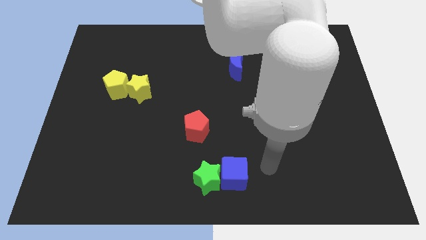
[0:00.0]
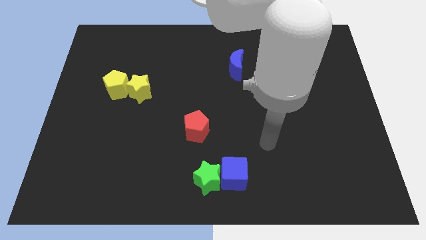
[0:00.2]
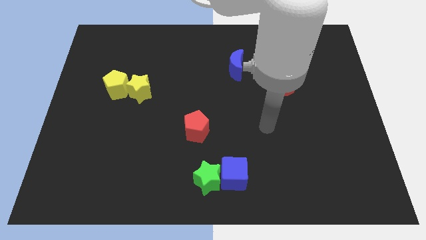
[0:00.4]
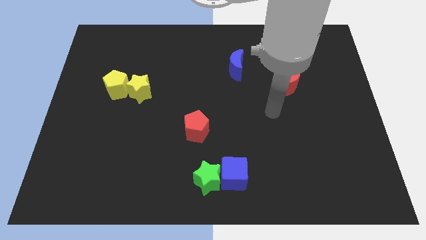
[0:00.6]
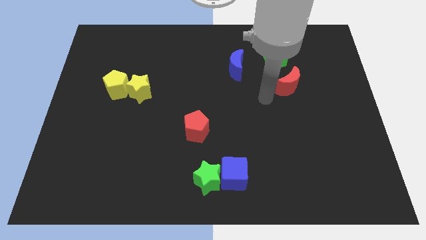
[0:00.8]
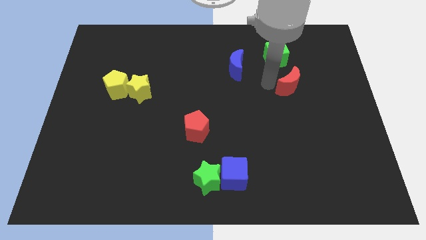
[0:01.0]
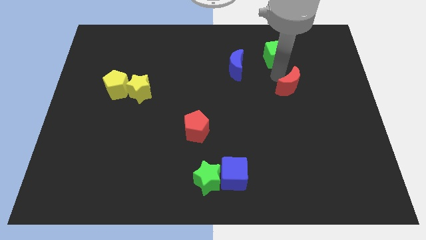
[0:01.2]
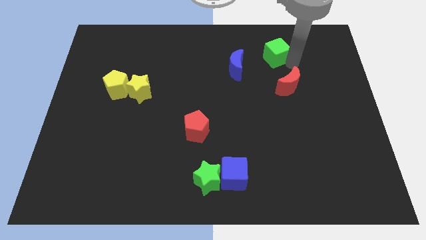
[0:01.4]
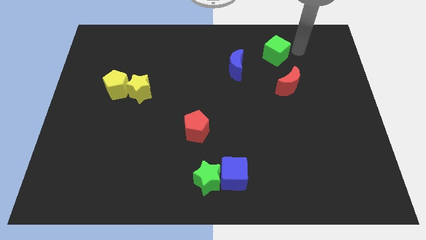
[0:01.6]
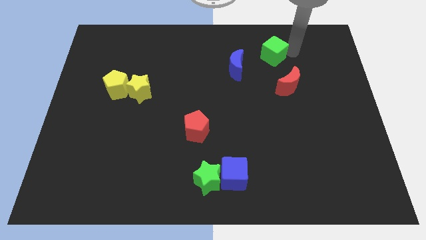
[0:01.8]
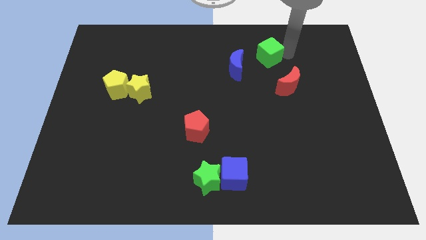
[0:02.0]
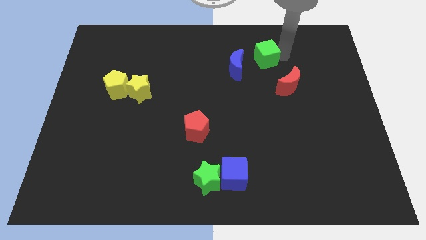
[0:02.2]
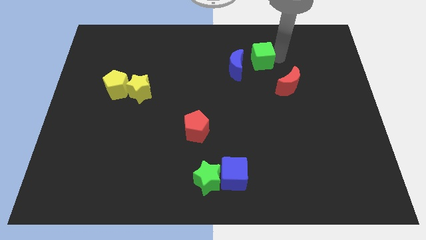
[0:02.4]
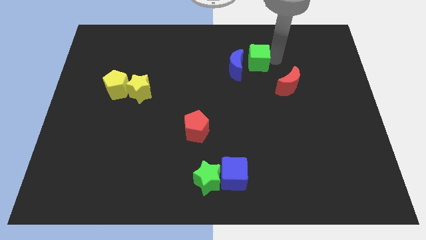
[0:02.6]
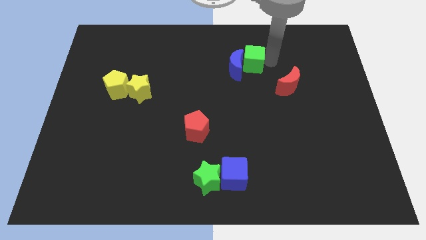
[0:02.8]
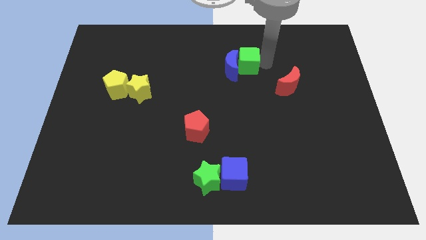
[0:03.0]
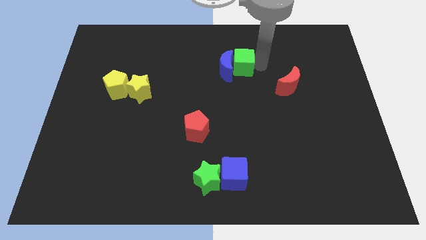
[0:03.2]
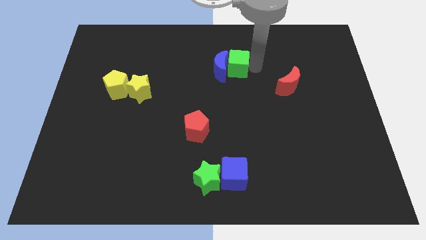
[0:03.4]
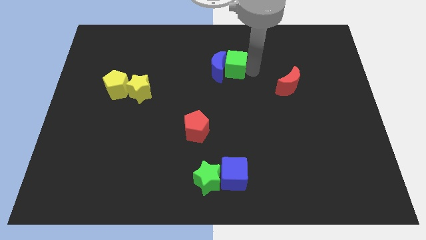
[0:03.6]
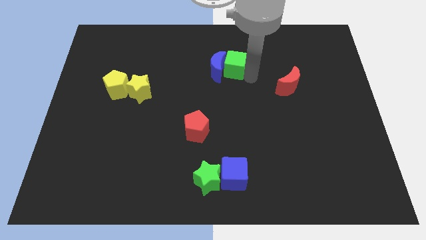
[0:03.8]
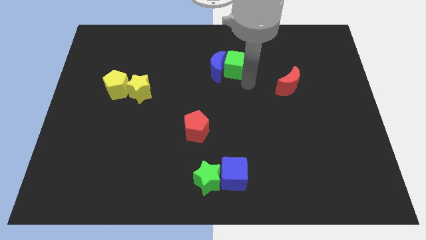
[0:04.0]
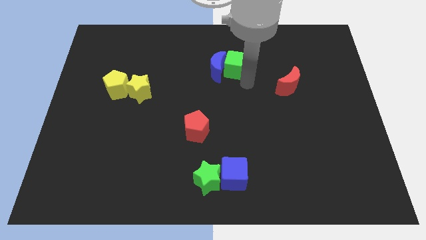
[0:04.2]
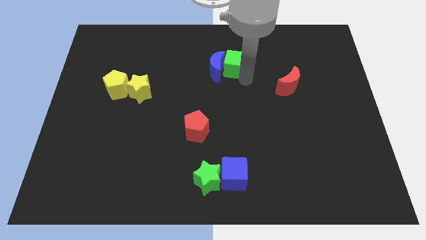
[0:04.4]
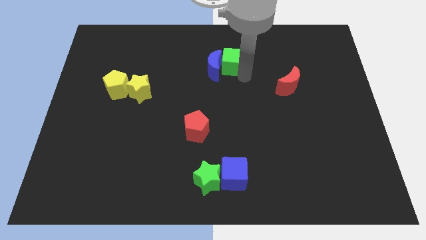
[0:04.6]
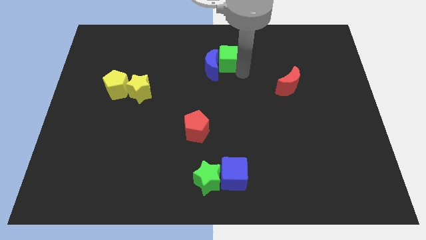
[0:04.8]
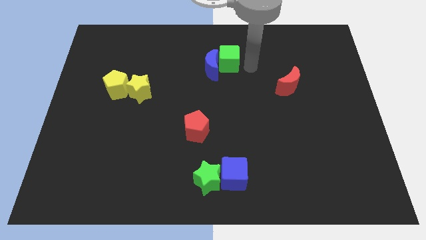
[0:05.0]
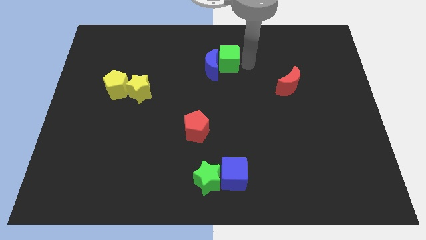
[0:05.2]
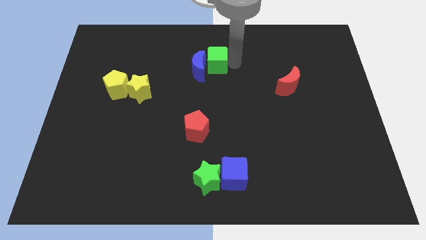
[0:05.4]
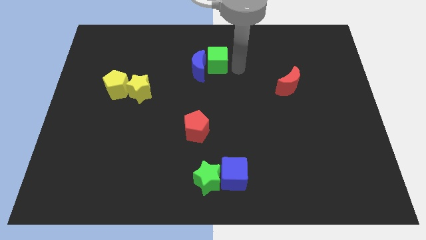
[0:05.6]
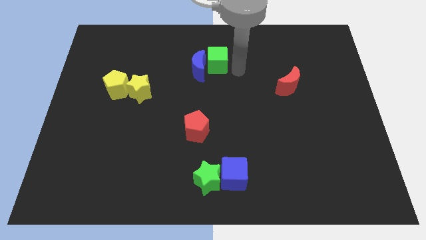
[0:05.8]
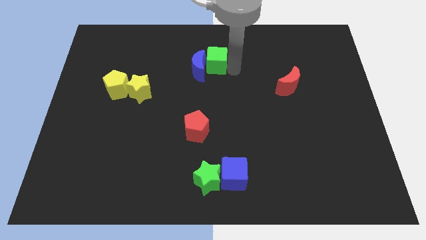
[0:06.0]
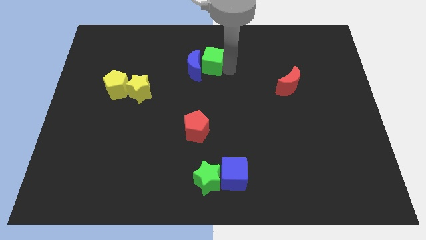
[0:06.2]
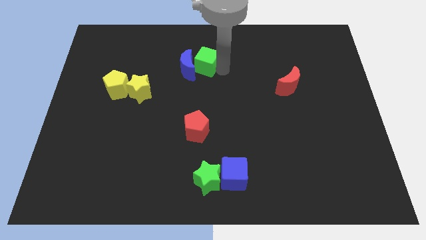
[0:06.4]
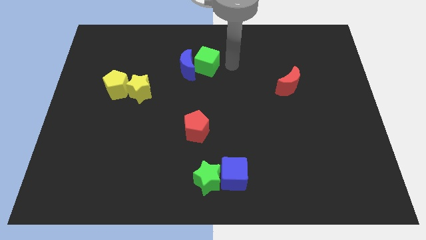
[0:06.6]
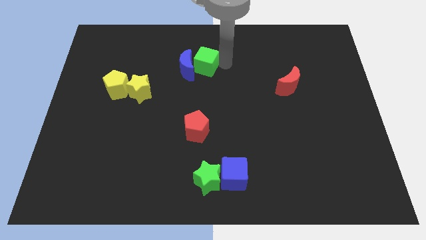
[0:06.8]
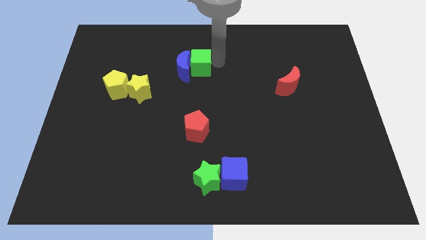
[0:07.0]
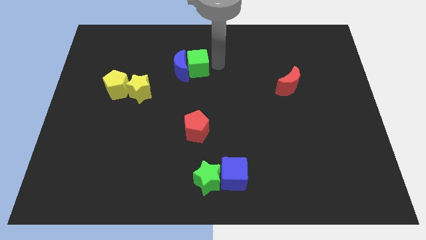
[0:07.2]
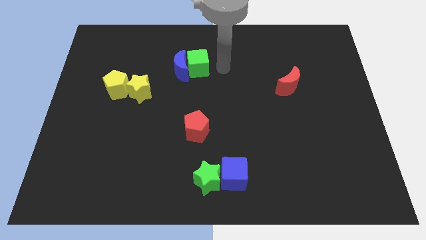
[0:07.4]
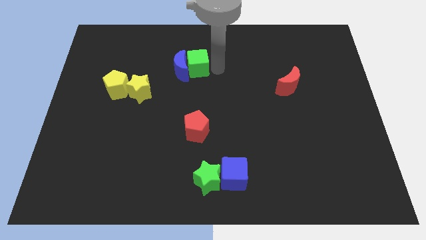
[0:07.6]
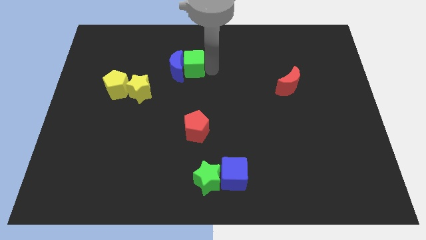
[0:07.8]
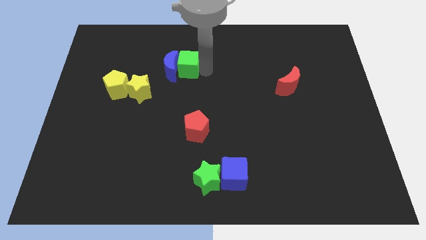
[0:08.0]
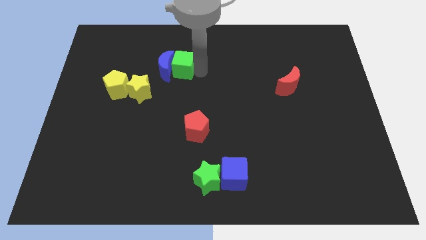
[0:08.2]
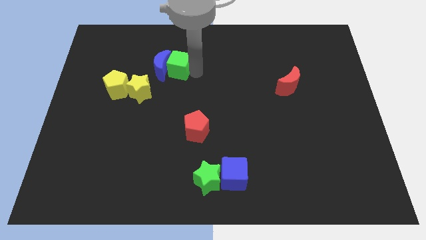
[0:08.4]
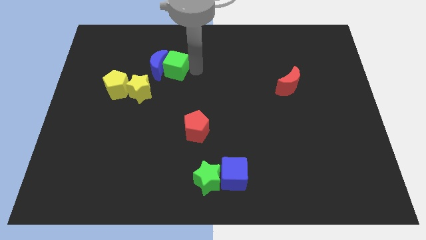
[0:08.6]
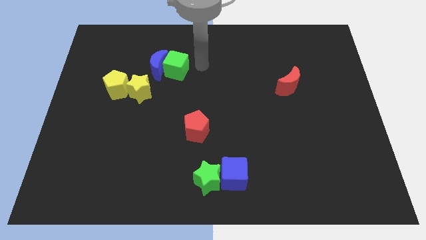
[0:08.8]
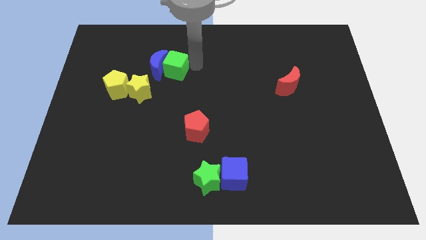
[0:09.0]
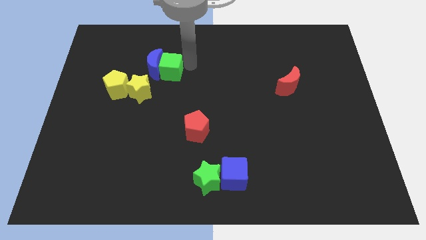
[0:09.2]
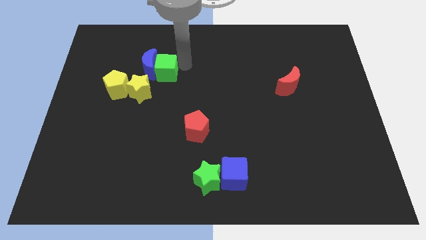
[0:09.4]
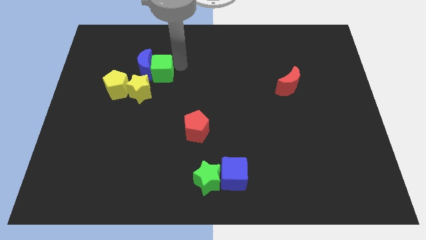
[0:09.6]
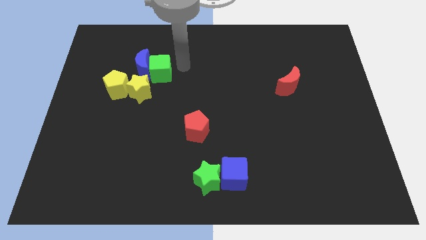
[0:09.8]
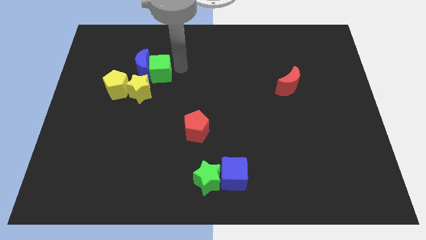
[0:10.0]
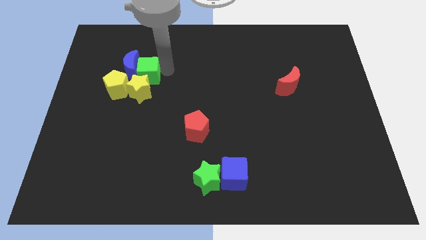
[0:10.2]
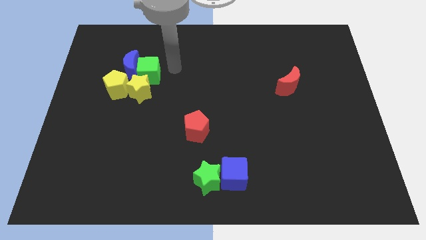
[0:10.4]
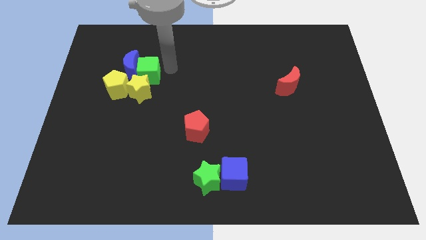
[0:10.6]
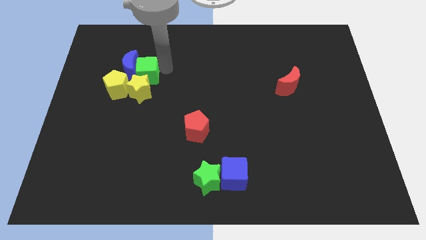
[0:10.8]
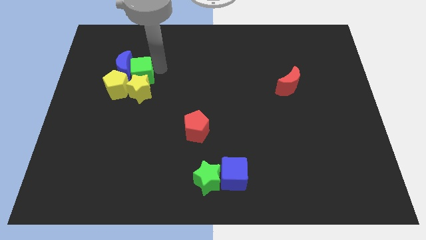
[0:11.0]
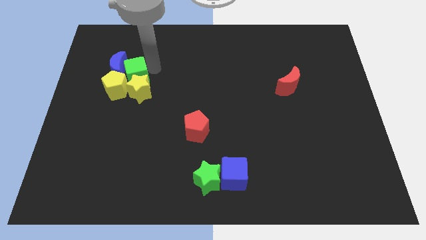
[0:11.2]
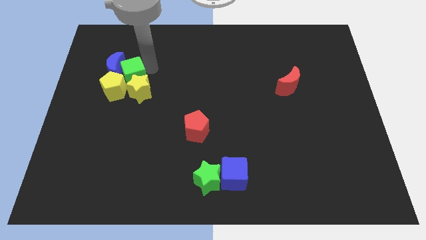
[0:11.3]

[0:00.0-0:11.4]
slide the green cube close to the yellow pentagon

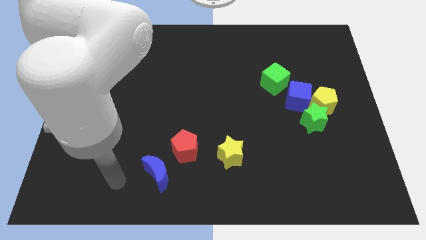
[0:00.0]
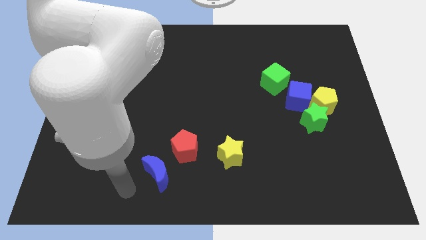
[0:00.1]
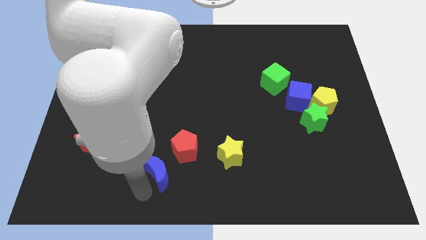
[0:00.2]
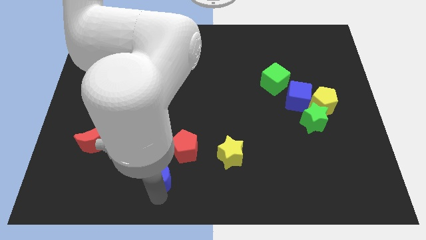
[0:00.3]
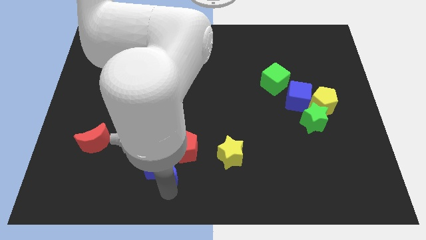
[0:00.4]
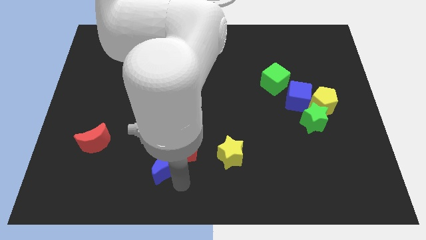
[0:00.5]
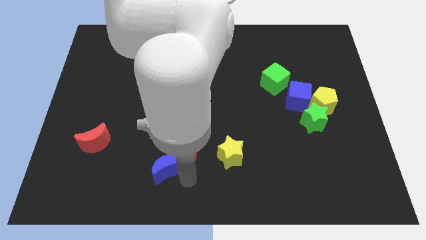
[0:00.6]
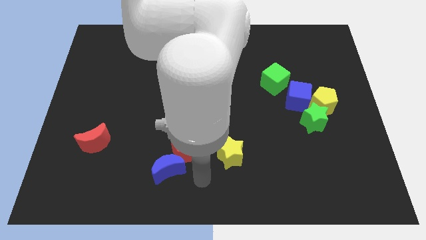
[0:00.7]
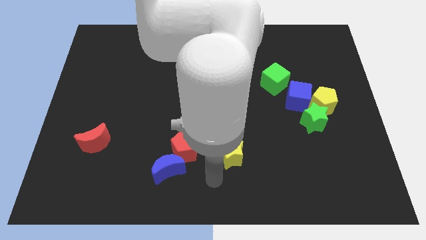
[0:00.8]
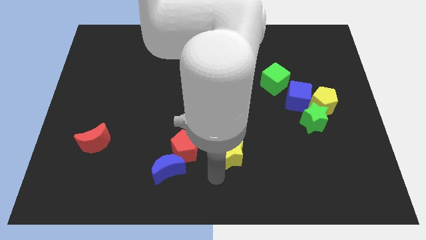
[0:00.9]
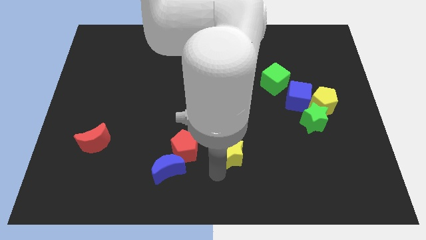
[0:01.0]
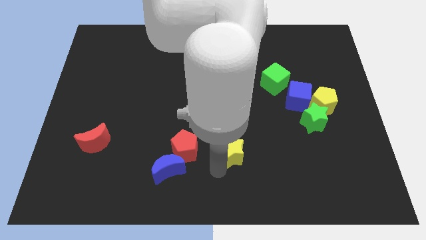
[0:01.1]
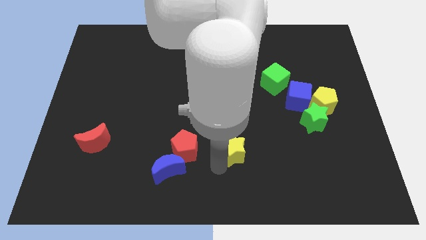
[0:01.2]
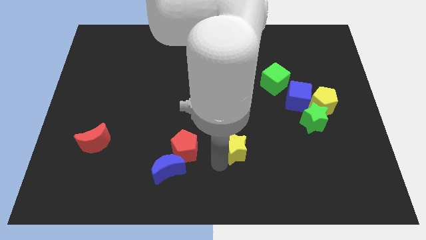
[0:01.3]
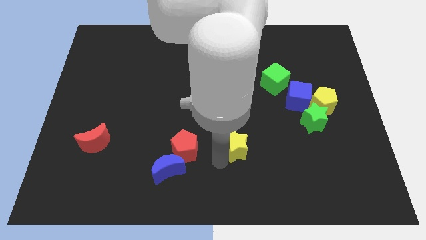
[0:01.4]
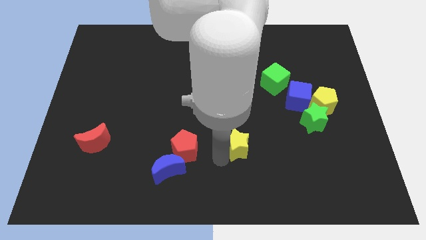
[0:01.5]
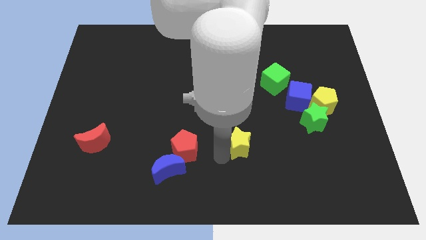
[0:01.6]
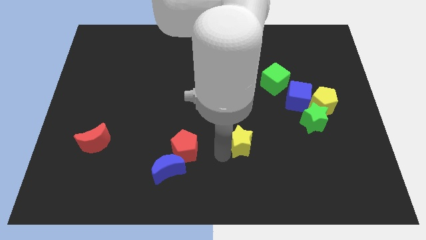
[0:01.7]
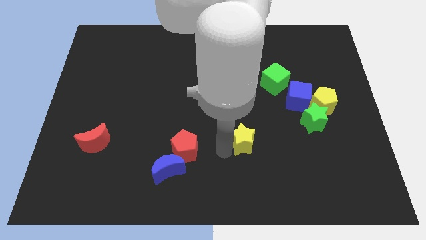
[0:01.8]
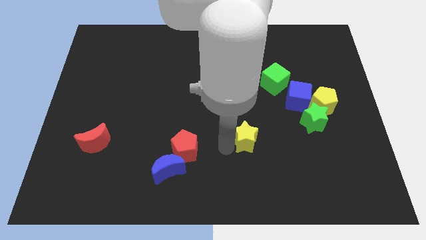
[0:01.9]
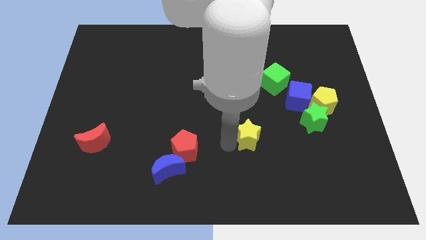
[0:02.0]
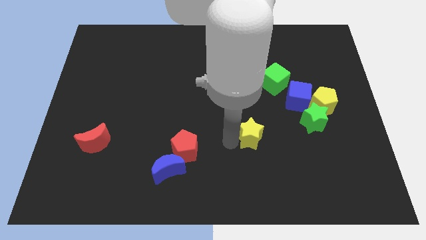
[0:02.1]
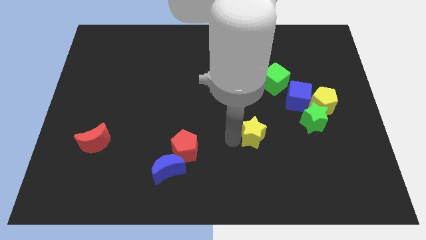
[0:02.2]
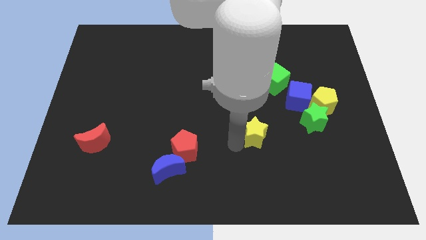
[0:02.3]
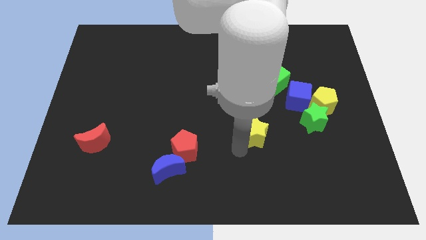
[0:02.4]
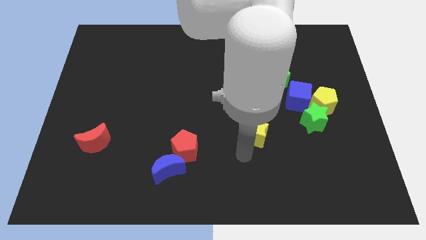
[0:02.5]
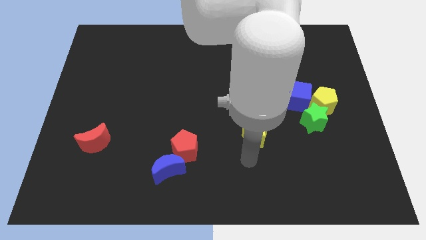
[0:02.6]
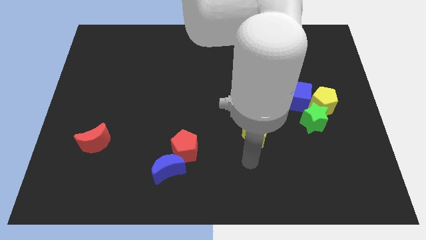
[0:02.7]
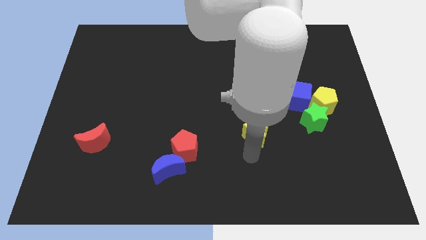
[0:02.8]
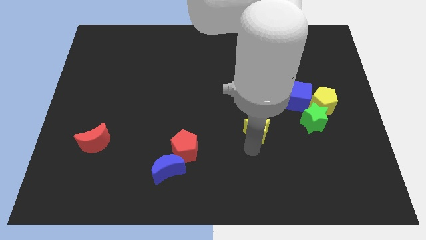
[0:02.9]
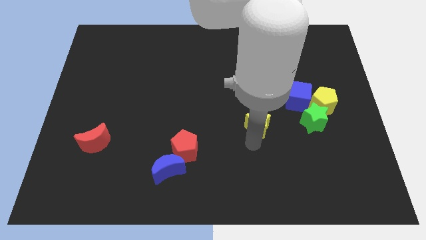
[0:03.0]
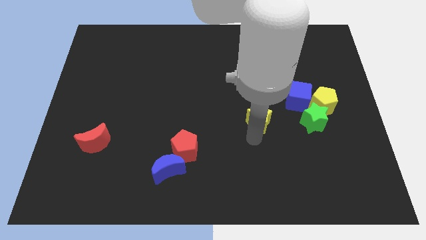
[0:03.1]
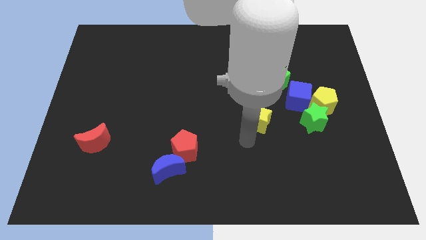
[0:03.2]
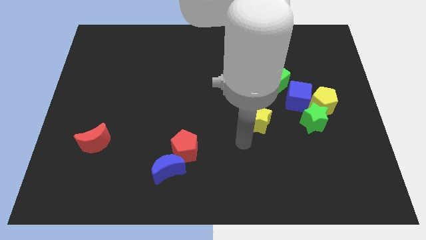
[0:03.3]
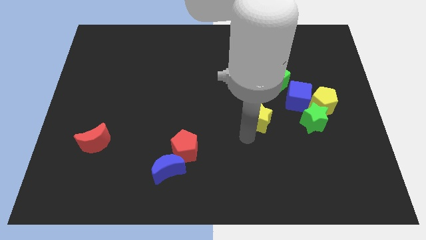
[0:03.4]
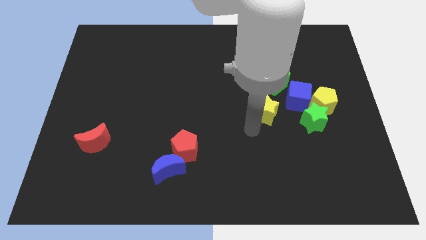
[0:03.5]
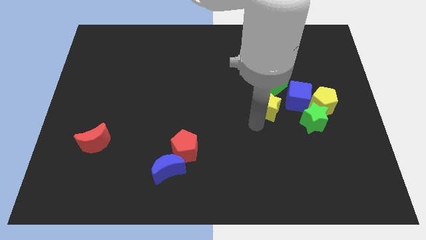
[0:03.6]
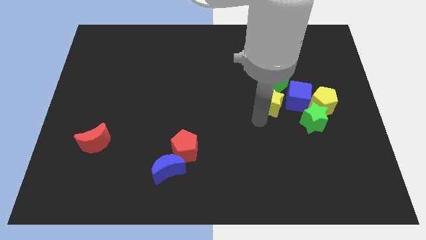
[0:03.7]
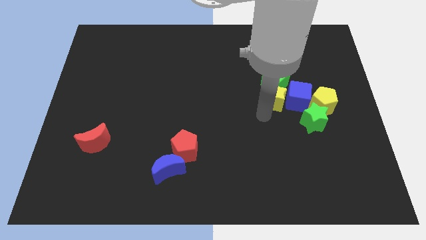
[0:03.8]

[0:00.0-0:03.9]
push the yellow star close to the green cube
